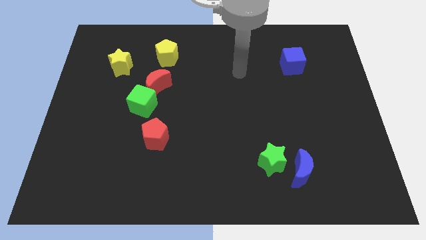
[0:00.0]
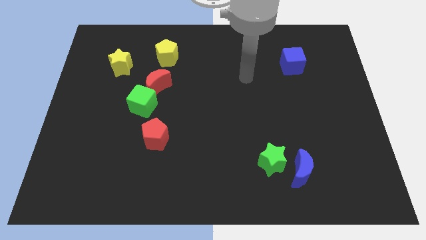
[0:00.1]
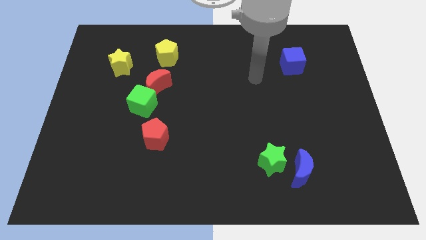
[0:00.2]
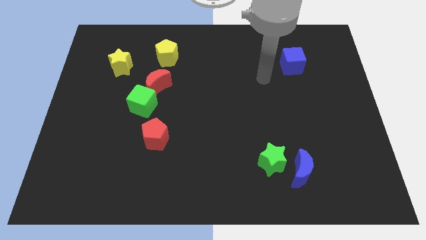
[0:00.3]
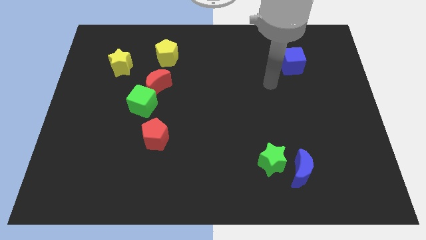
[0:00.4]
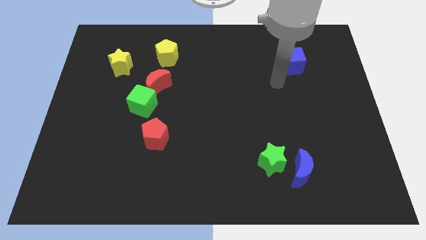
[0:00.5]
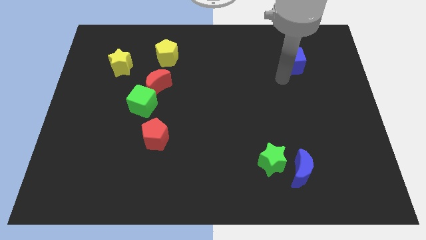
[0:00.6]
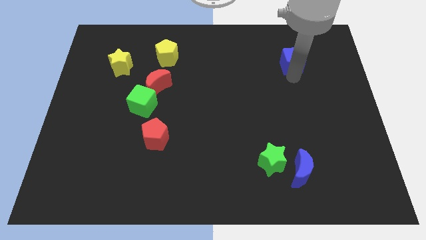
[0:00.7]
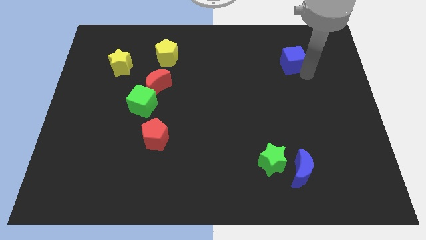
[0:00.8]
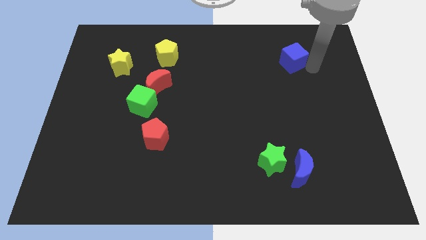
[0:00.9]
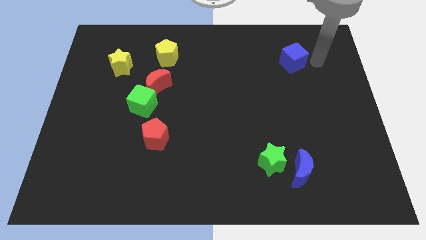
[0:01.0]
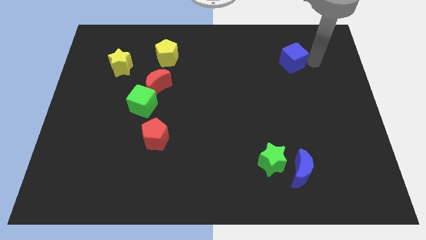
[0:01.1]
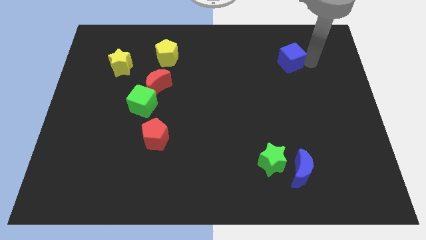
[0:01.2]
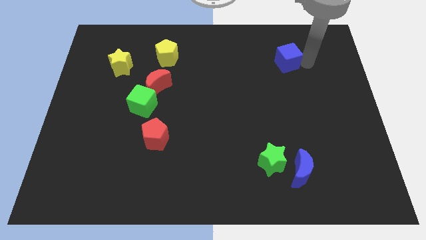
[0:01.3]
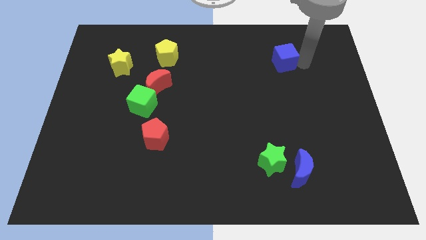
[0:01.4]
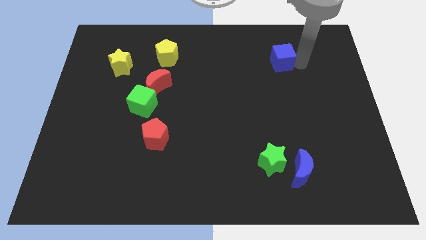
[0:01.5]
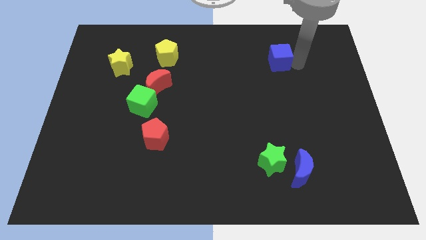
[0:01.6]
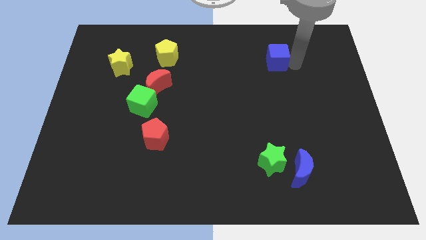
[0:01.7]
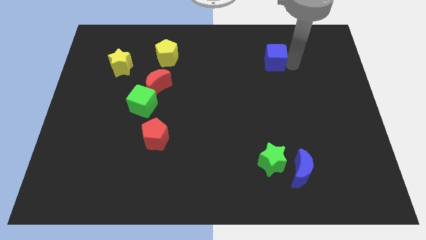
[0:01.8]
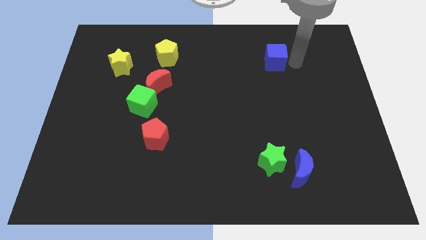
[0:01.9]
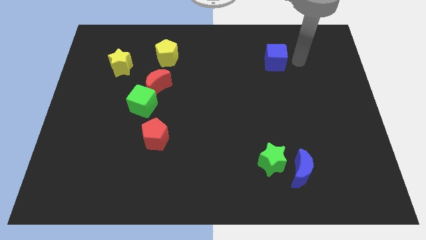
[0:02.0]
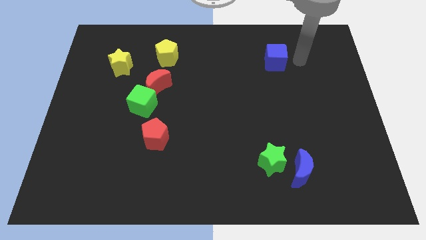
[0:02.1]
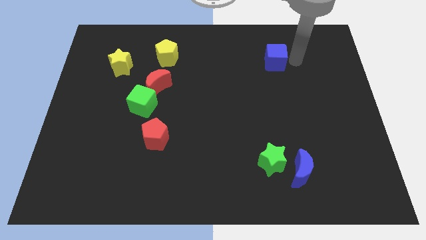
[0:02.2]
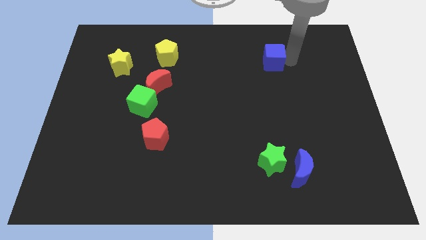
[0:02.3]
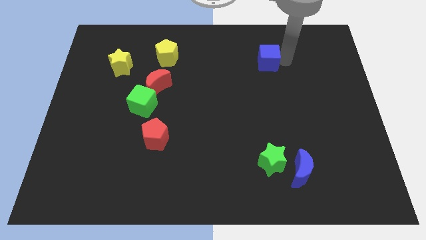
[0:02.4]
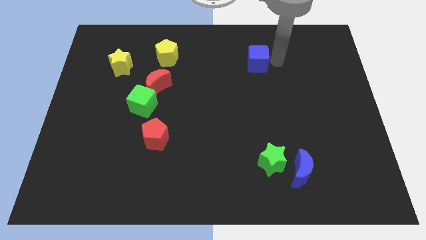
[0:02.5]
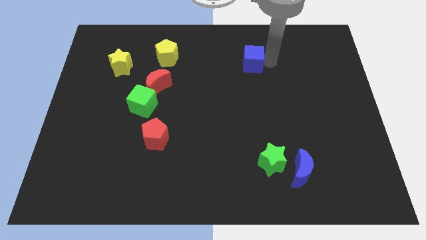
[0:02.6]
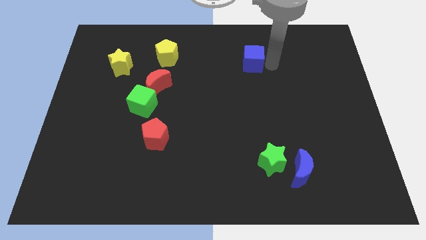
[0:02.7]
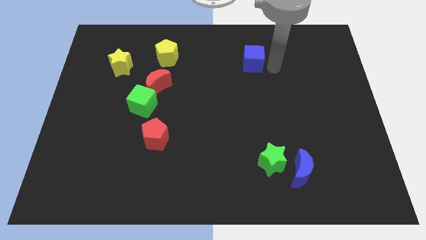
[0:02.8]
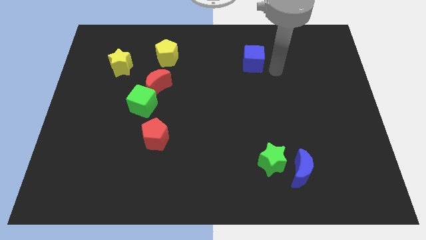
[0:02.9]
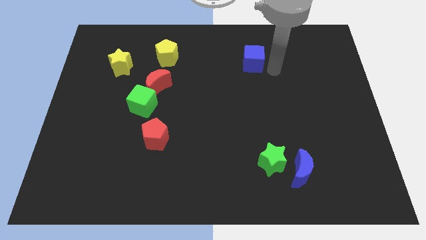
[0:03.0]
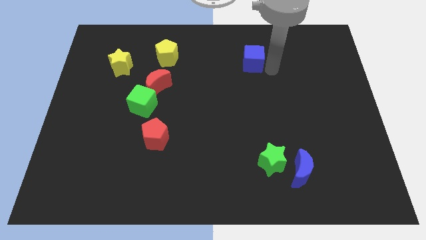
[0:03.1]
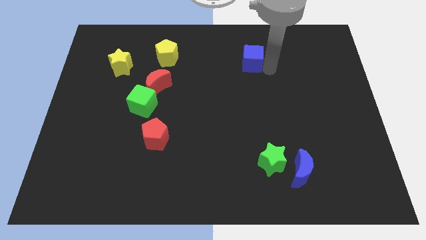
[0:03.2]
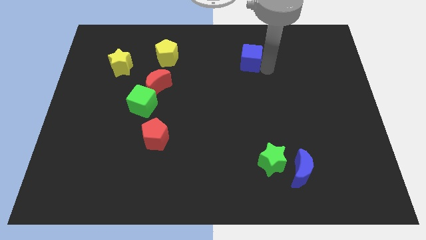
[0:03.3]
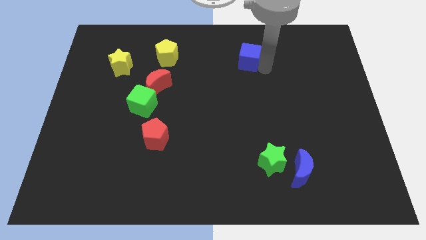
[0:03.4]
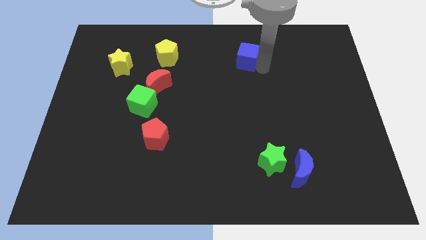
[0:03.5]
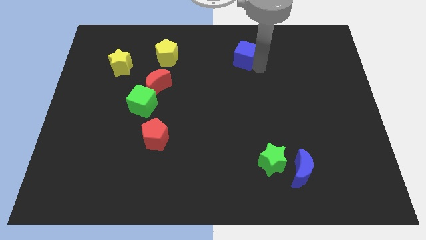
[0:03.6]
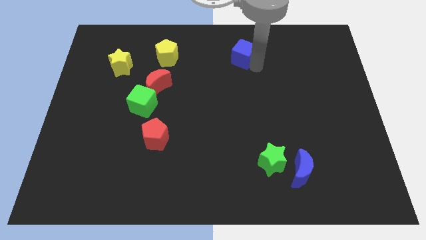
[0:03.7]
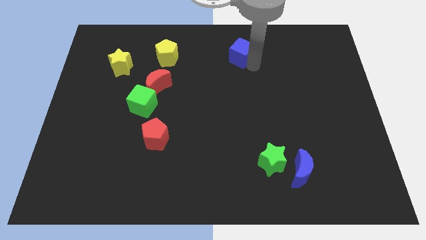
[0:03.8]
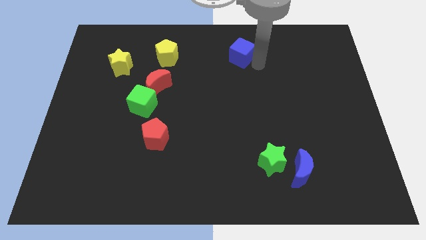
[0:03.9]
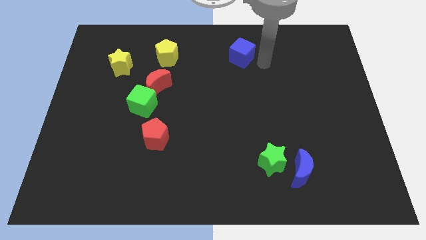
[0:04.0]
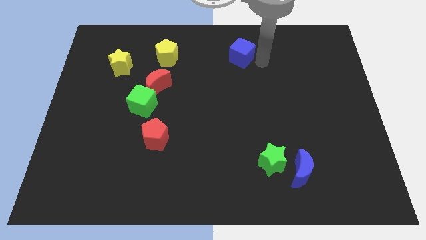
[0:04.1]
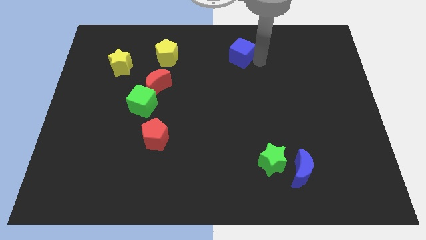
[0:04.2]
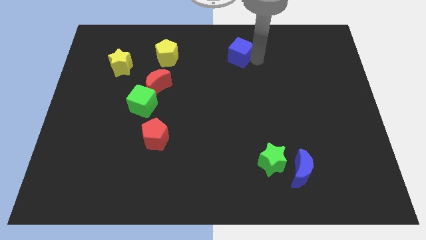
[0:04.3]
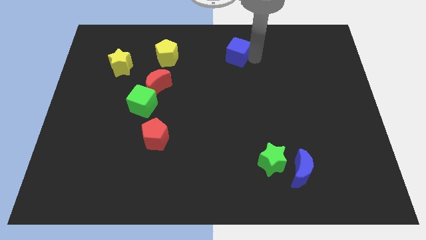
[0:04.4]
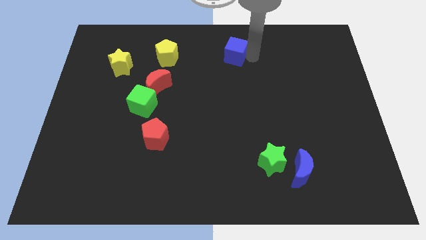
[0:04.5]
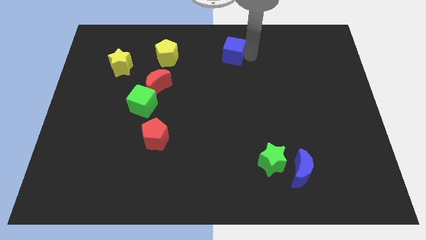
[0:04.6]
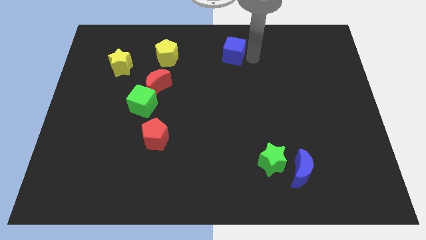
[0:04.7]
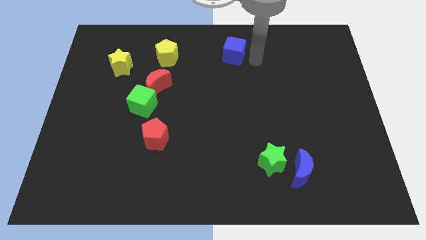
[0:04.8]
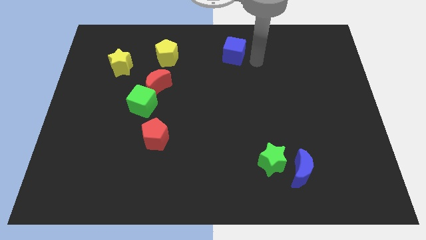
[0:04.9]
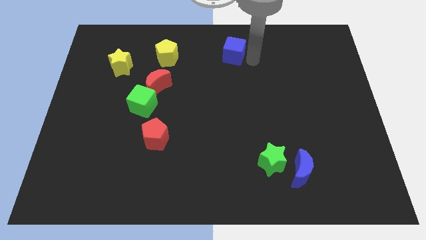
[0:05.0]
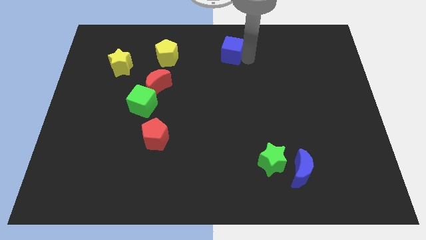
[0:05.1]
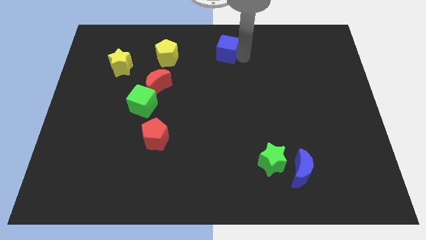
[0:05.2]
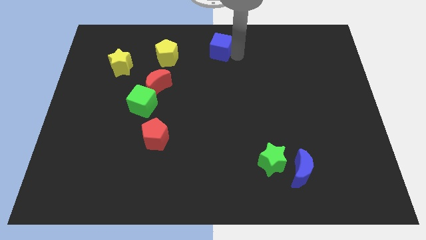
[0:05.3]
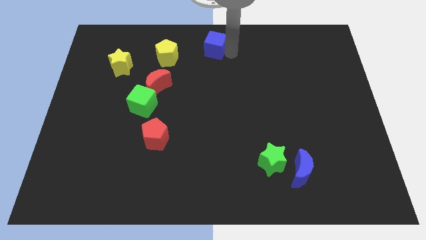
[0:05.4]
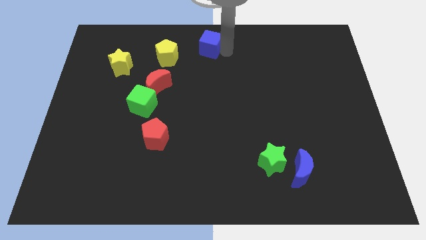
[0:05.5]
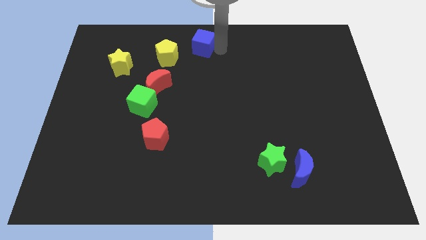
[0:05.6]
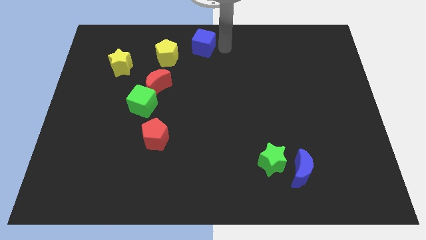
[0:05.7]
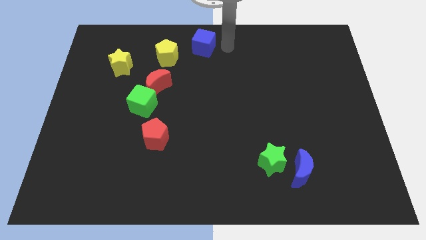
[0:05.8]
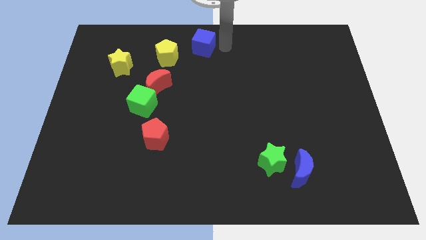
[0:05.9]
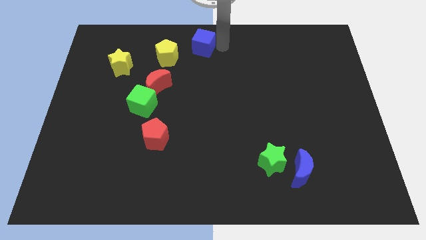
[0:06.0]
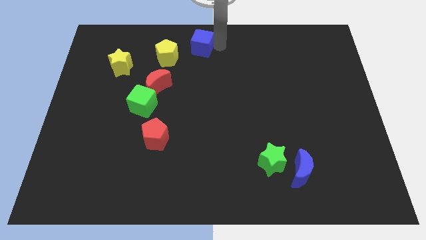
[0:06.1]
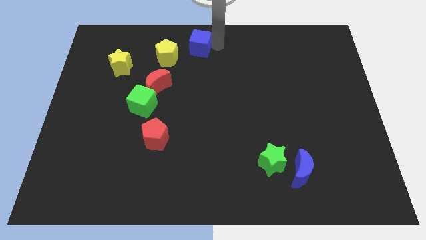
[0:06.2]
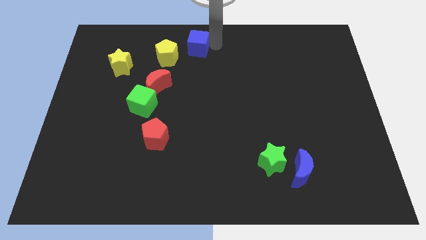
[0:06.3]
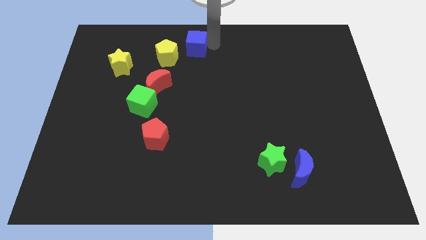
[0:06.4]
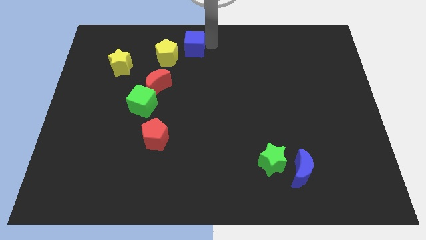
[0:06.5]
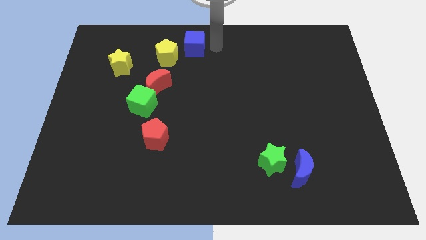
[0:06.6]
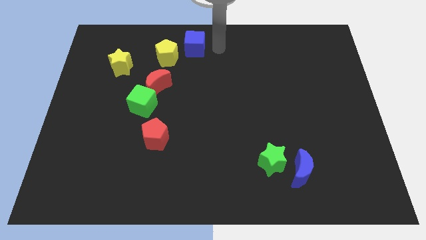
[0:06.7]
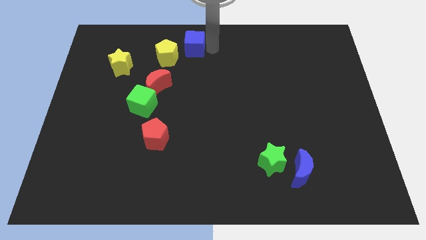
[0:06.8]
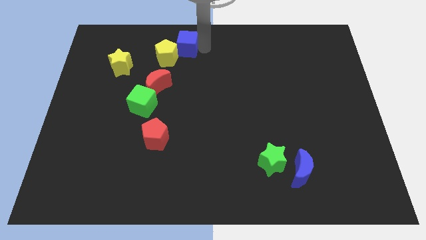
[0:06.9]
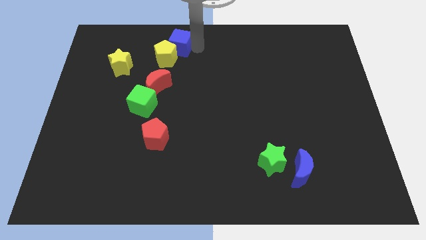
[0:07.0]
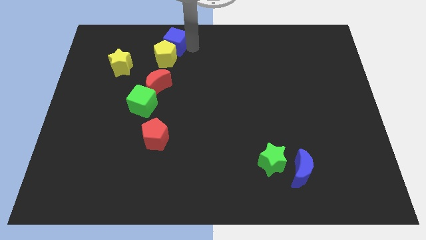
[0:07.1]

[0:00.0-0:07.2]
move the blue cube to the top of the red moon

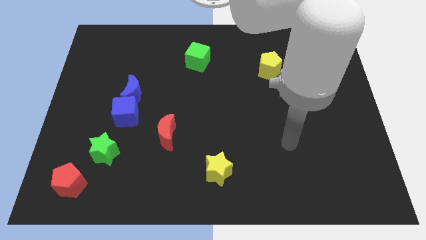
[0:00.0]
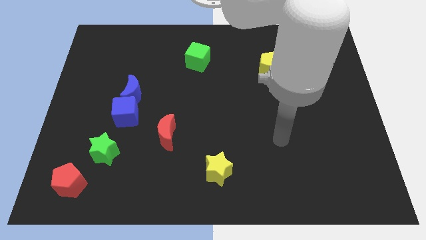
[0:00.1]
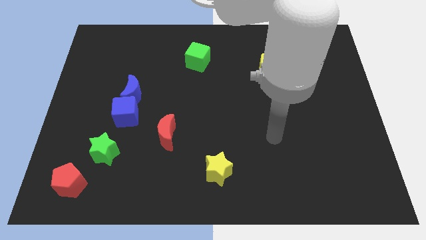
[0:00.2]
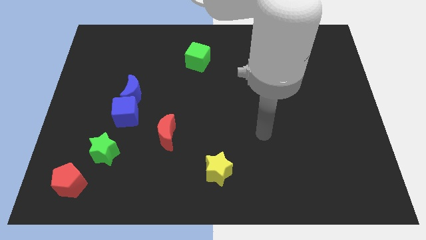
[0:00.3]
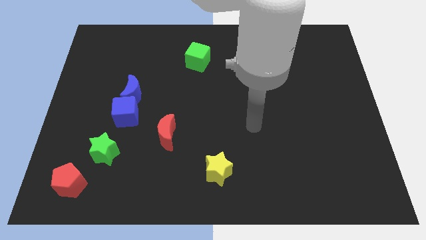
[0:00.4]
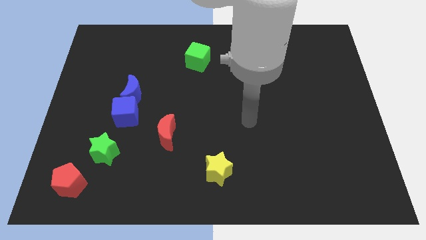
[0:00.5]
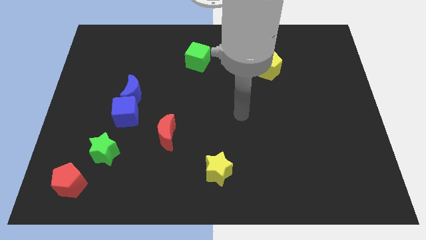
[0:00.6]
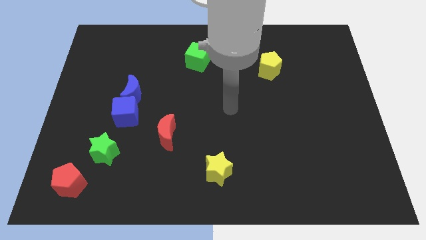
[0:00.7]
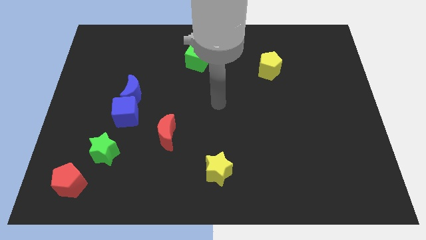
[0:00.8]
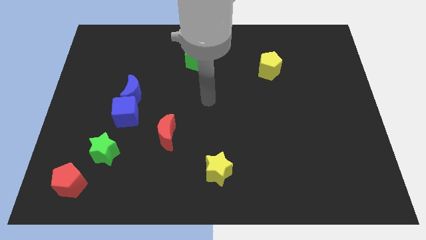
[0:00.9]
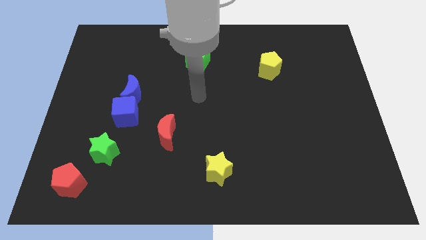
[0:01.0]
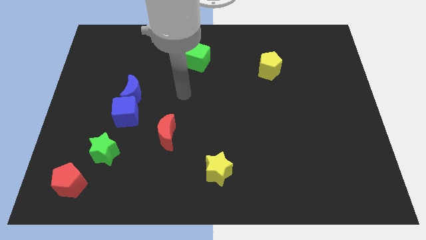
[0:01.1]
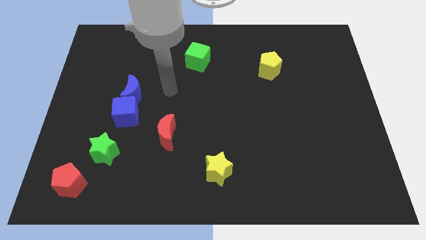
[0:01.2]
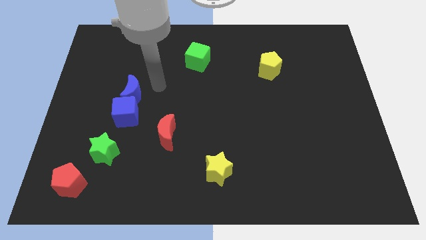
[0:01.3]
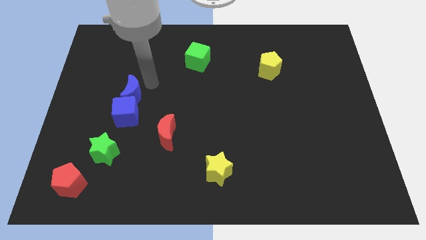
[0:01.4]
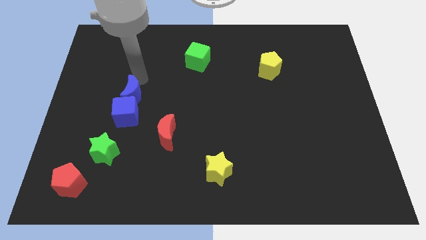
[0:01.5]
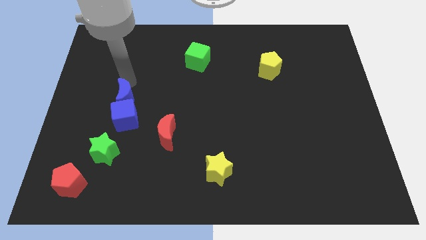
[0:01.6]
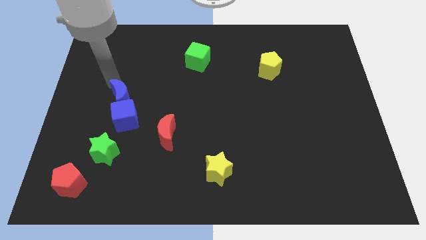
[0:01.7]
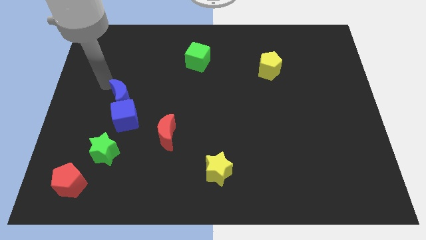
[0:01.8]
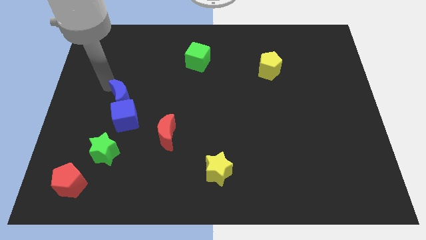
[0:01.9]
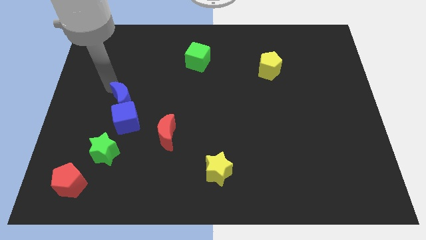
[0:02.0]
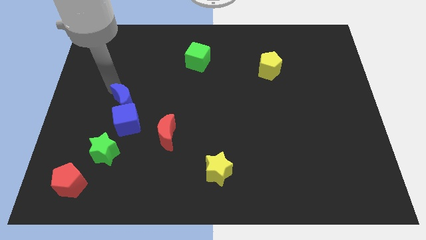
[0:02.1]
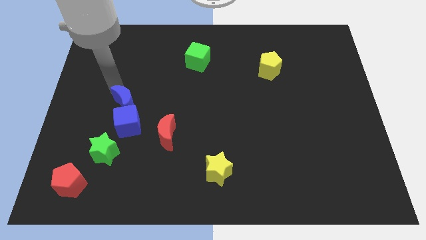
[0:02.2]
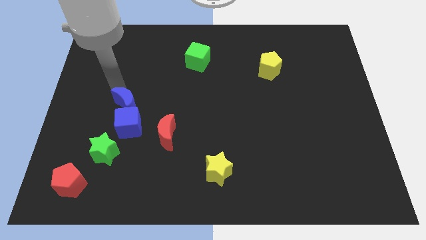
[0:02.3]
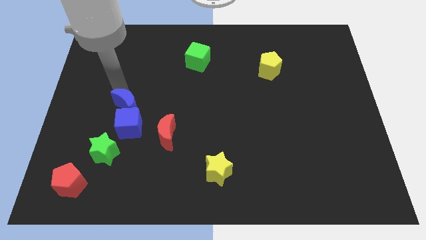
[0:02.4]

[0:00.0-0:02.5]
push the blue moon to the top left side of the red moon
